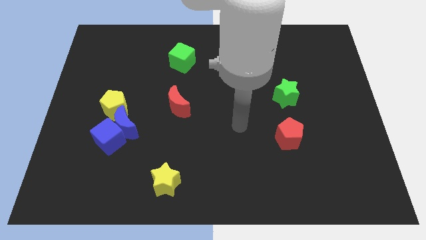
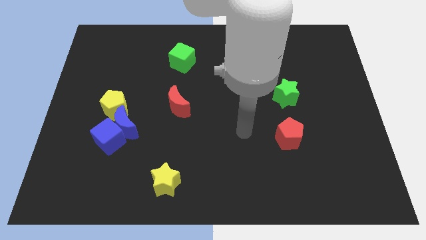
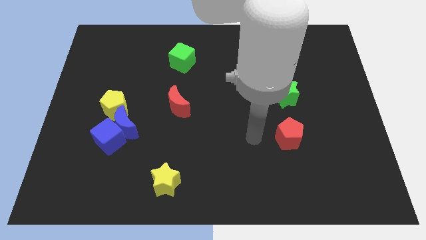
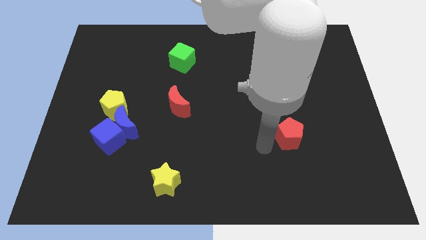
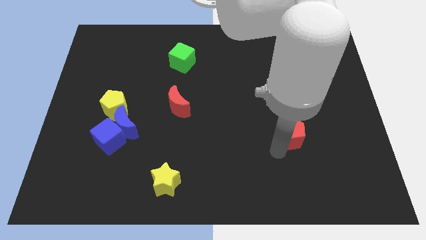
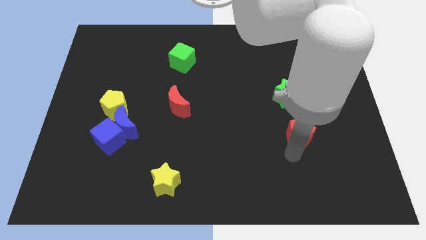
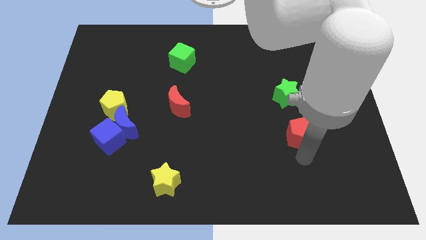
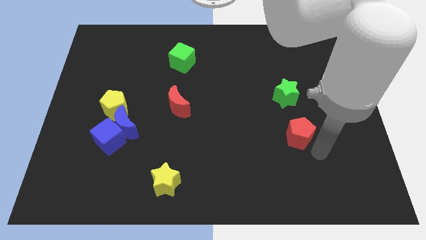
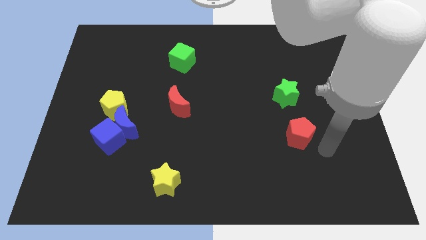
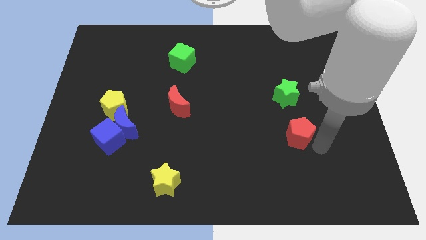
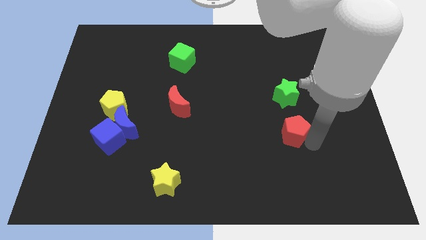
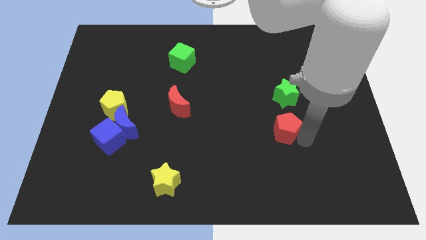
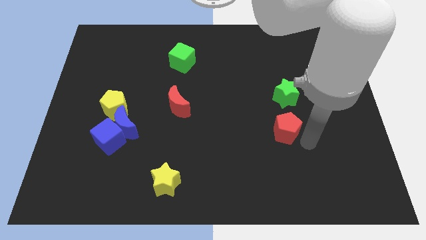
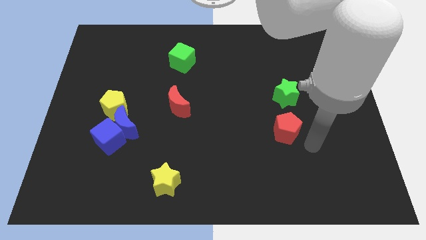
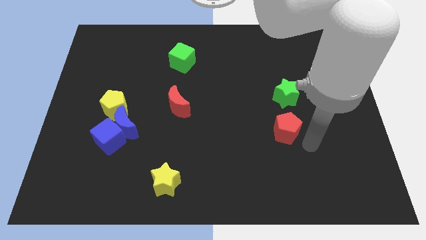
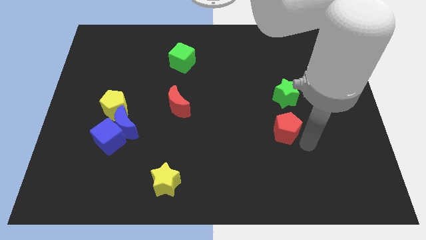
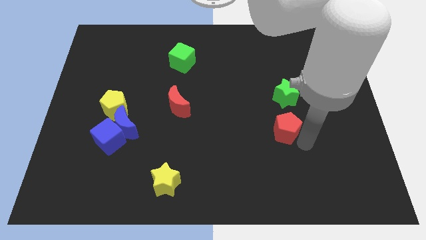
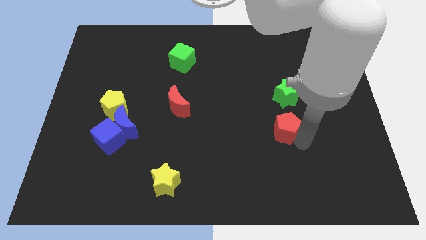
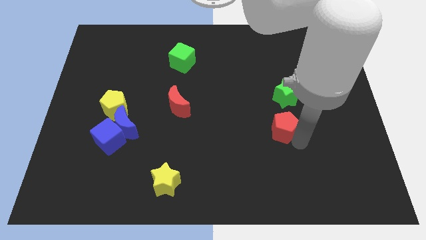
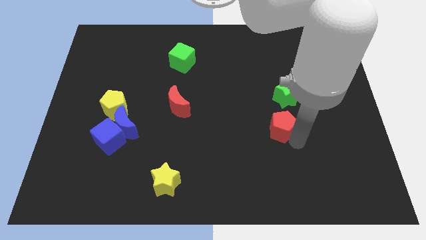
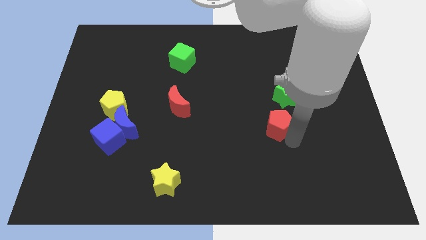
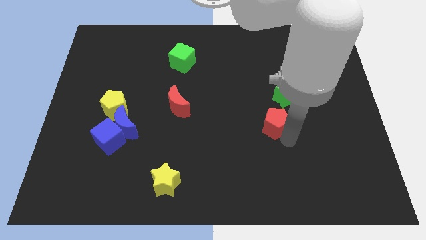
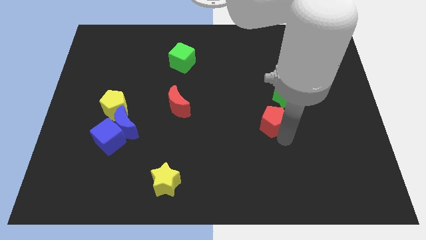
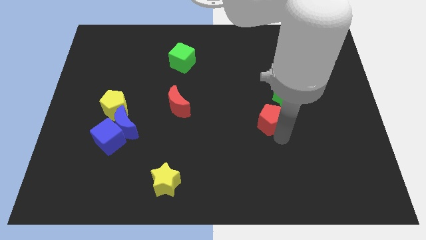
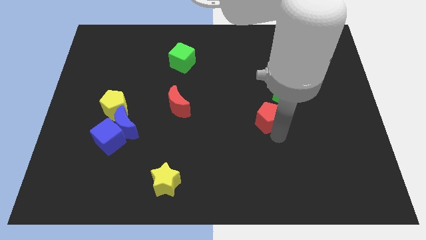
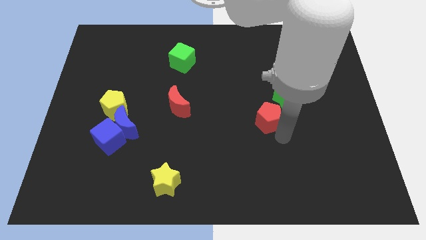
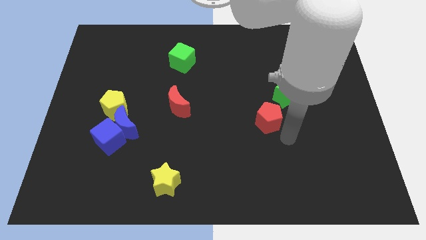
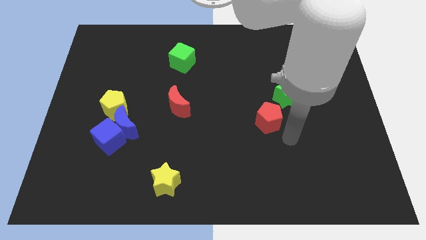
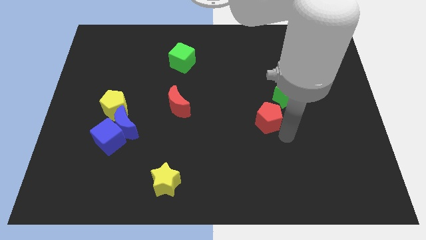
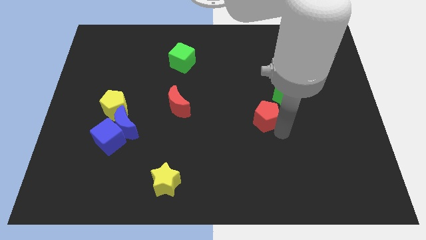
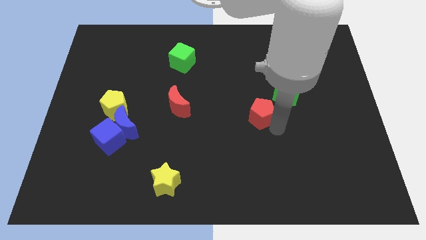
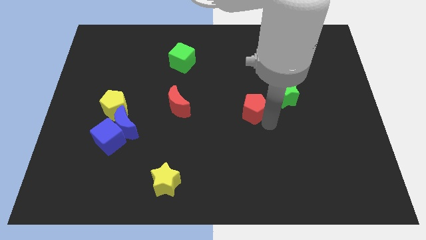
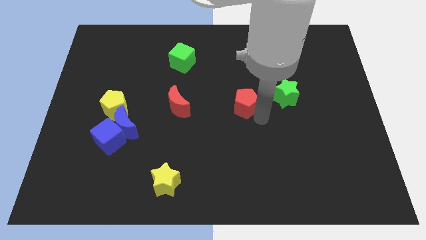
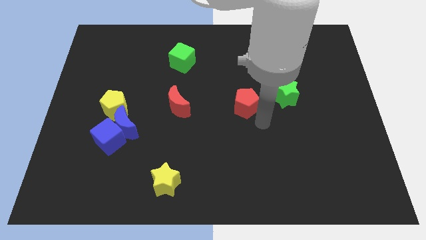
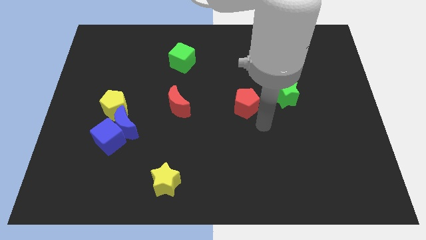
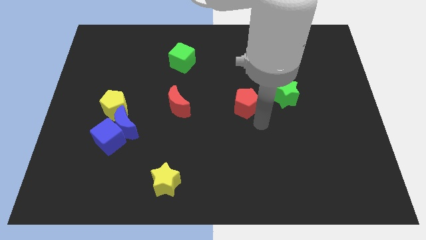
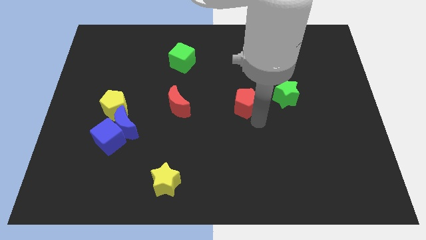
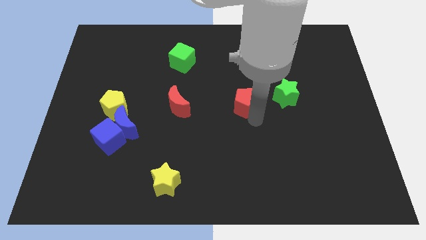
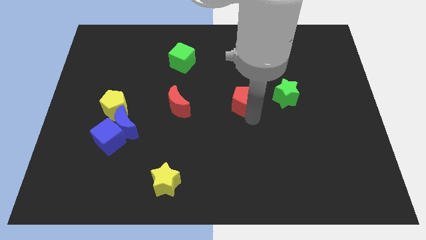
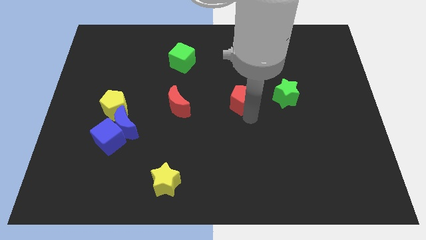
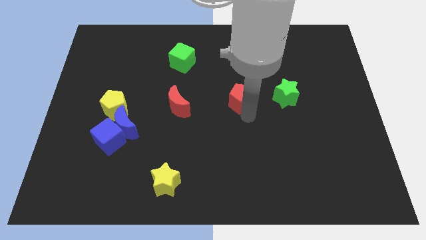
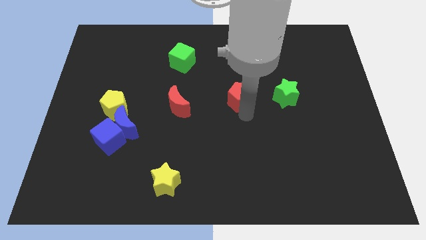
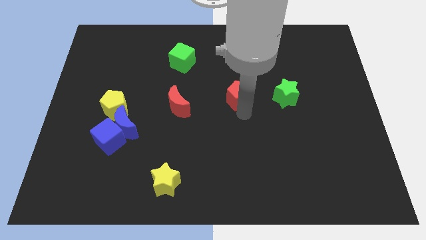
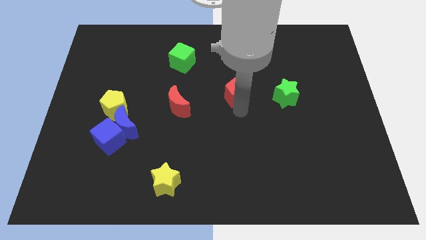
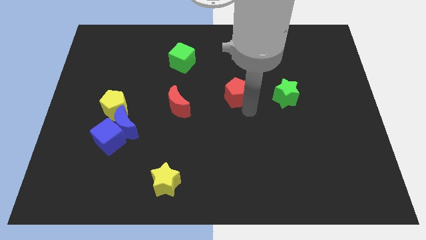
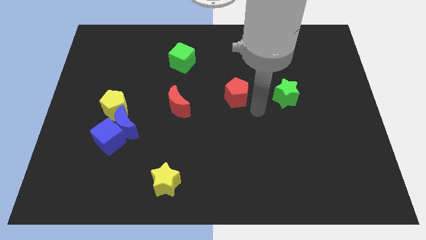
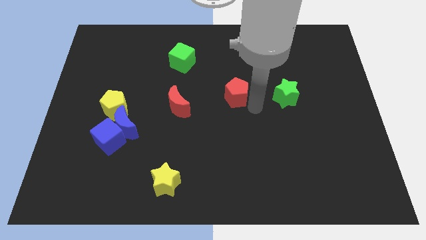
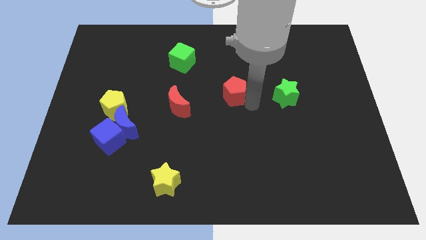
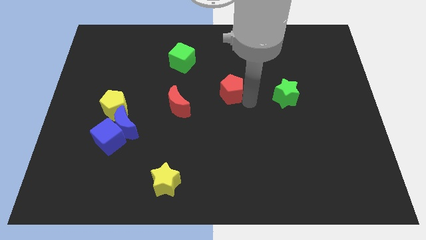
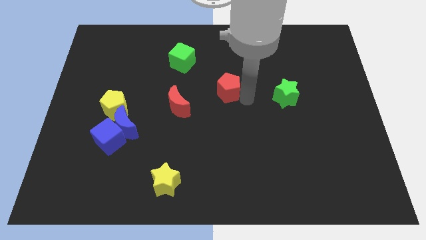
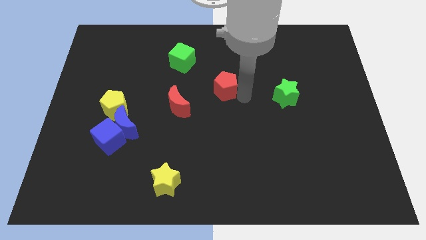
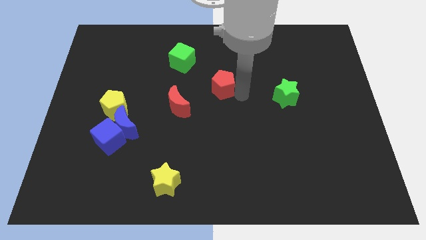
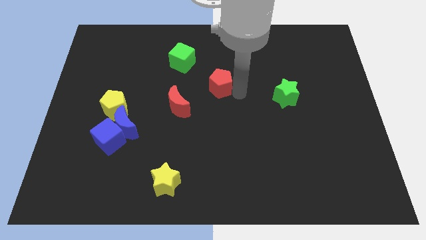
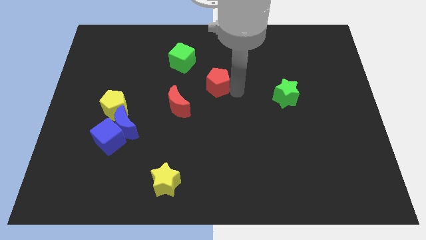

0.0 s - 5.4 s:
slide the red pentagon diagonally down and to the right of the green cube

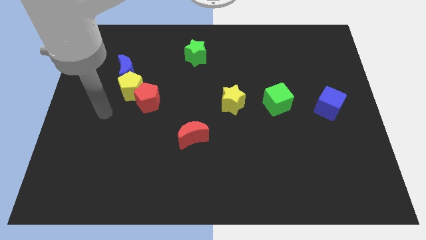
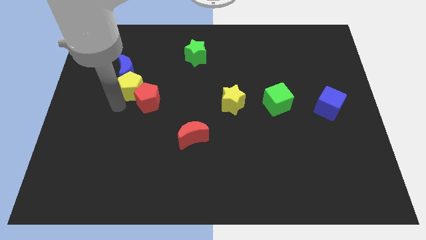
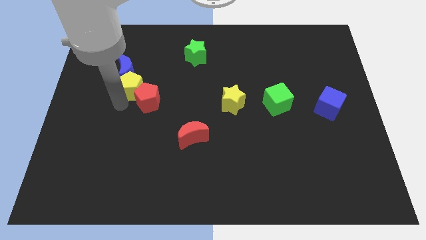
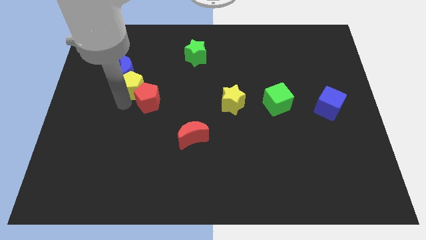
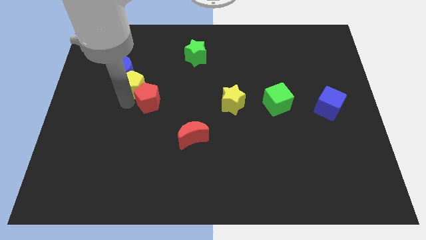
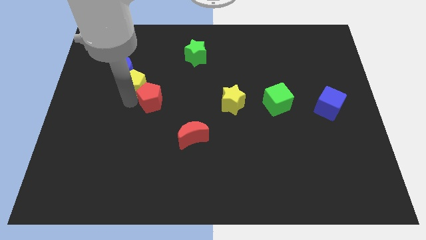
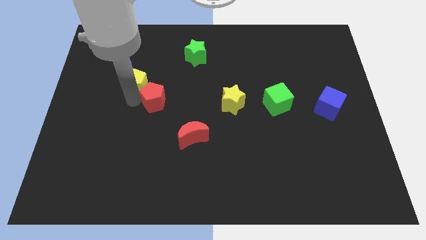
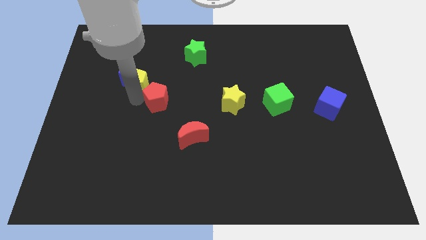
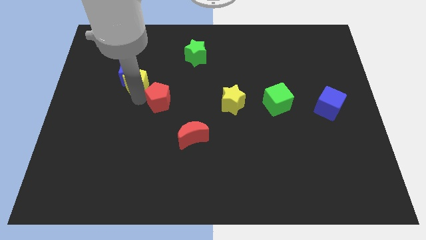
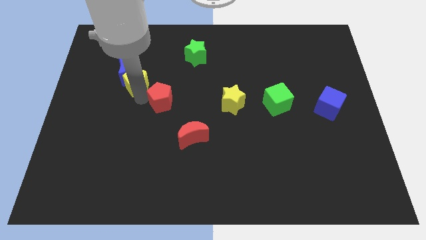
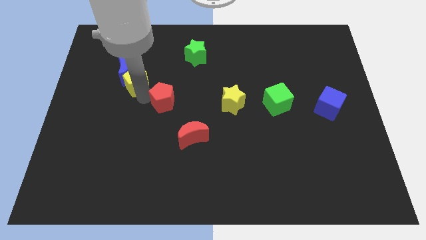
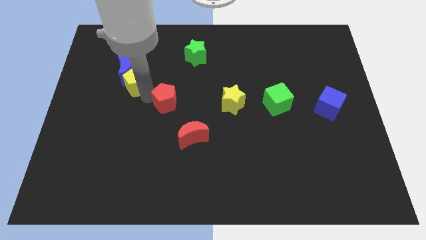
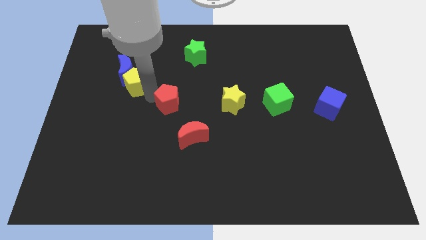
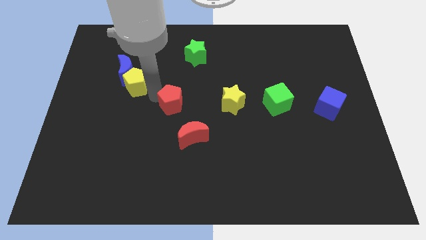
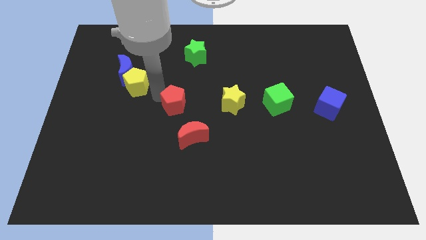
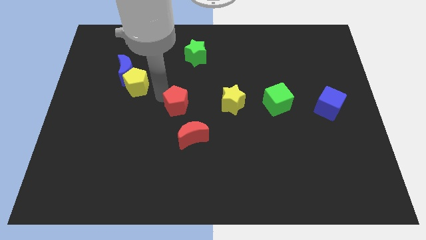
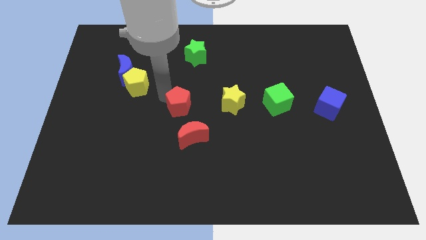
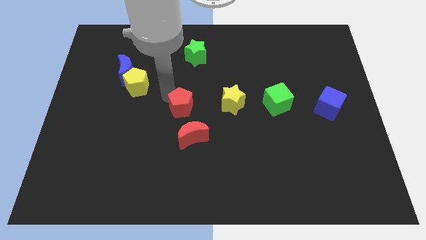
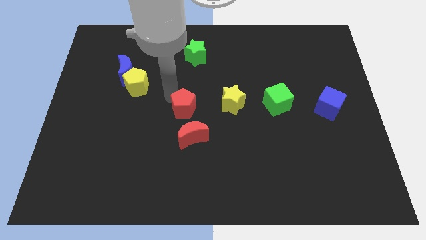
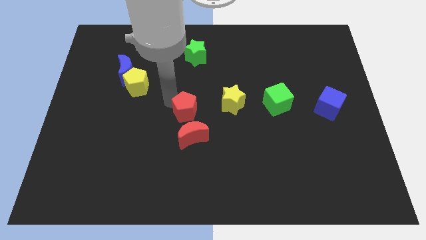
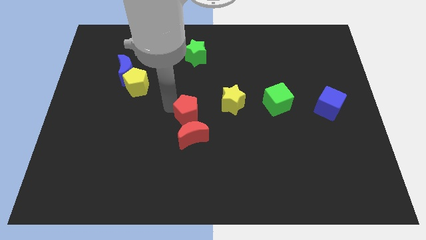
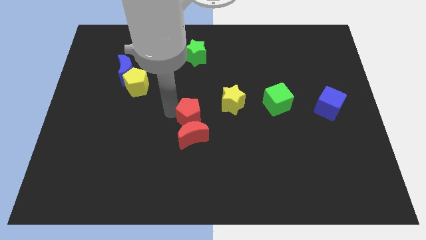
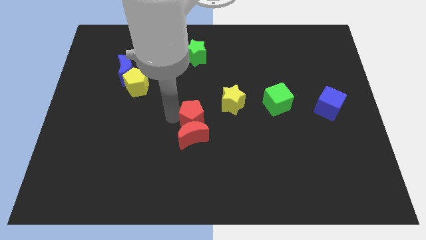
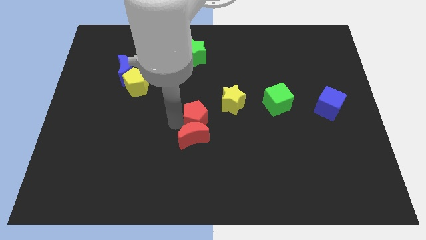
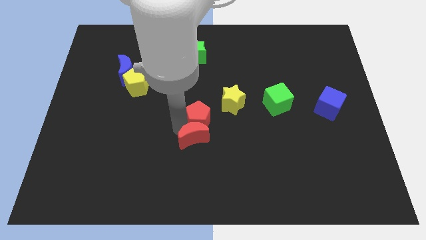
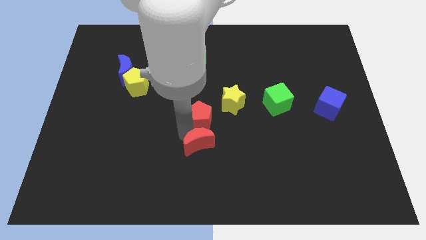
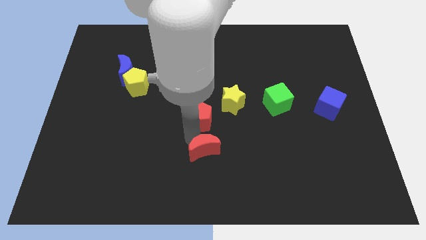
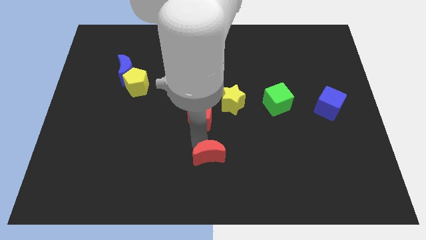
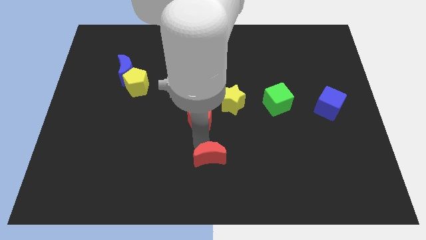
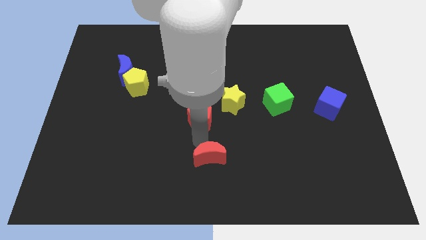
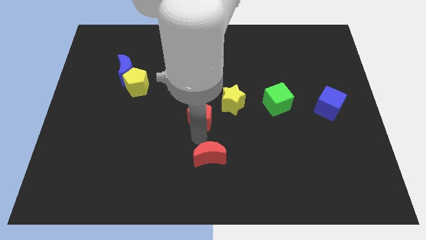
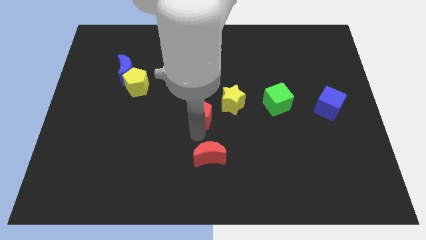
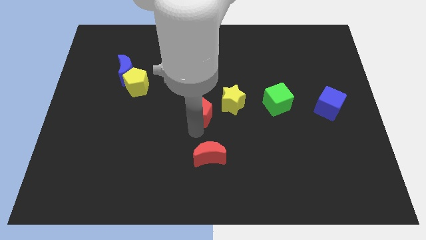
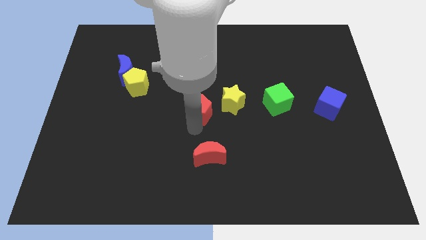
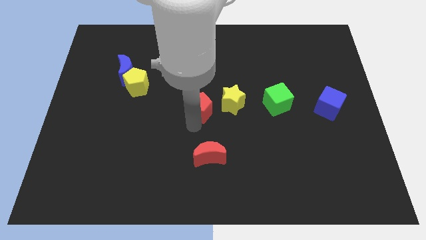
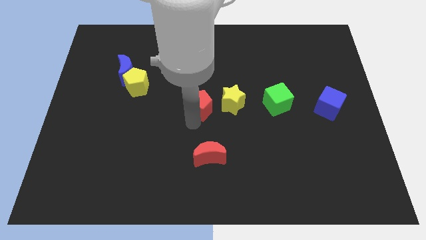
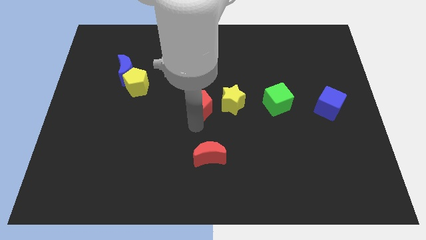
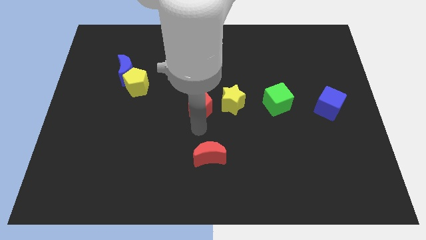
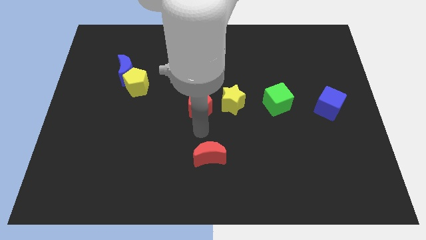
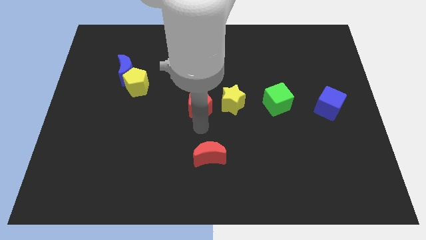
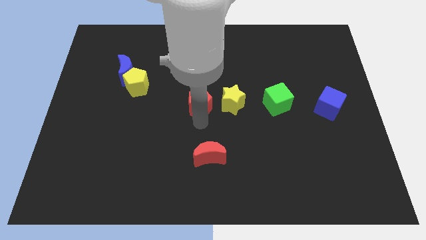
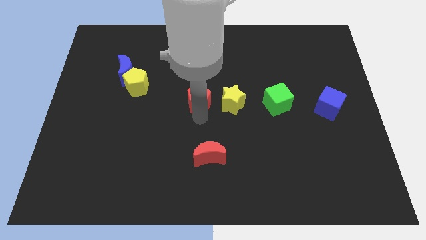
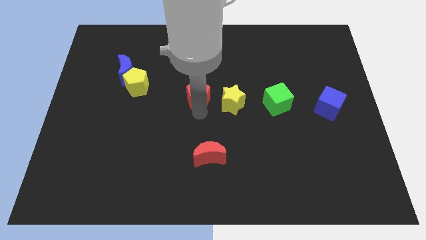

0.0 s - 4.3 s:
move the red pentagon diagonally up and to the left of the yellow star
